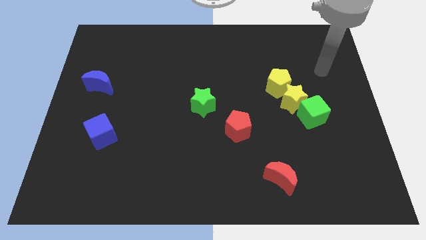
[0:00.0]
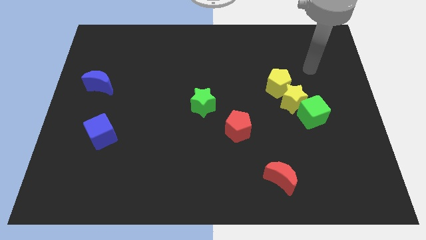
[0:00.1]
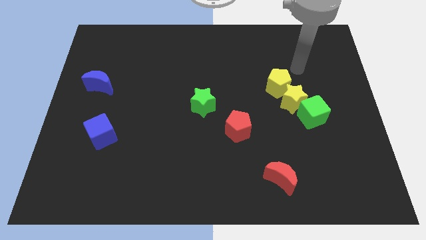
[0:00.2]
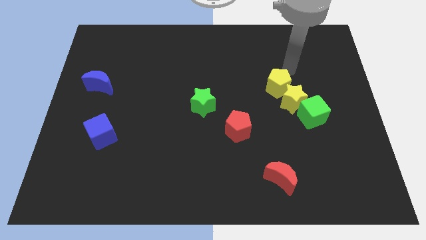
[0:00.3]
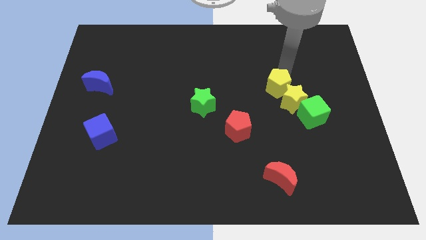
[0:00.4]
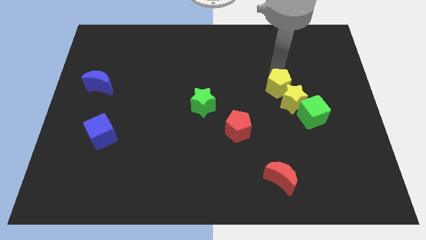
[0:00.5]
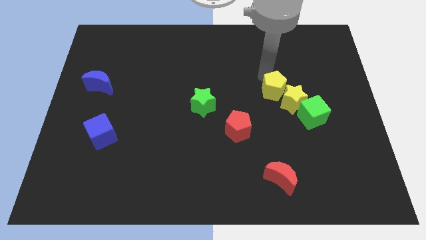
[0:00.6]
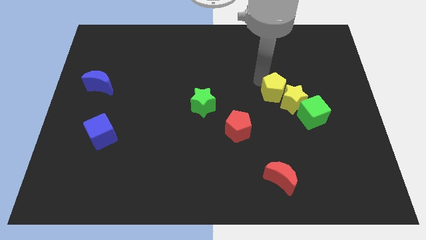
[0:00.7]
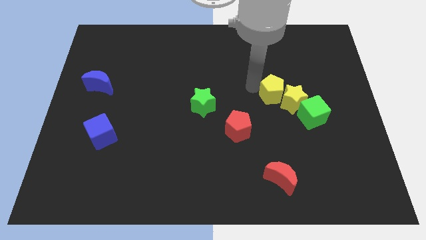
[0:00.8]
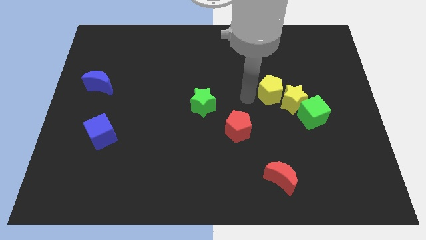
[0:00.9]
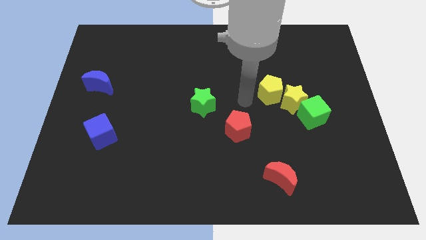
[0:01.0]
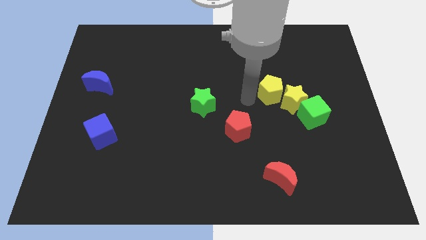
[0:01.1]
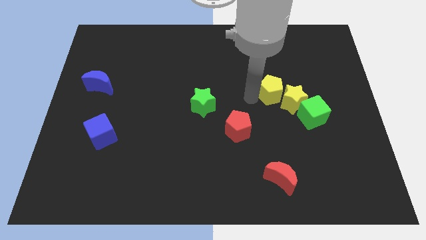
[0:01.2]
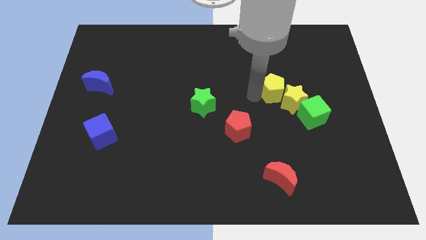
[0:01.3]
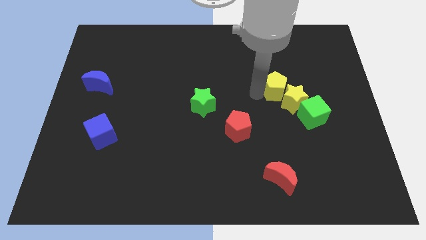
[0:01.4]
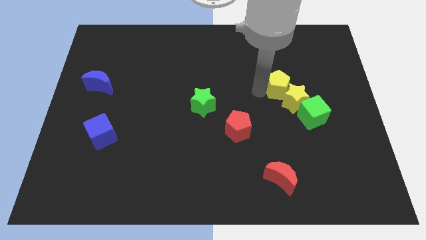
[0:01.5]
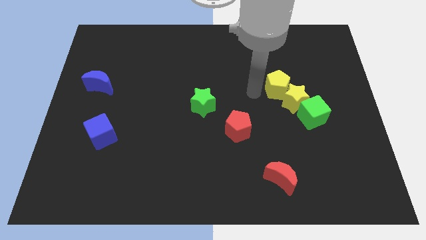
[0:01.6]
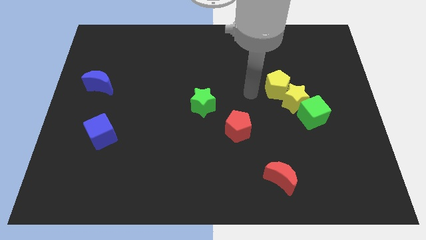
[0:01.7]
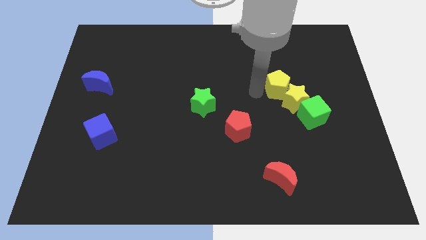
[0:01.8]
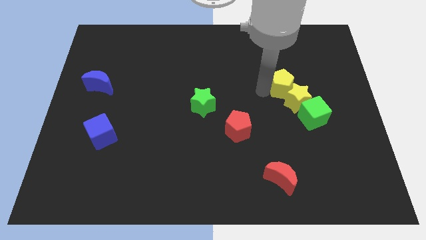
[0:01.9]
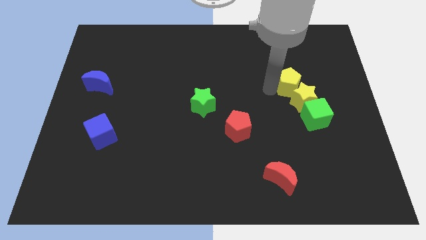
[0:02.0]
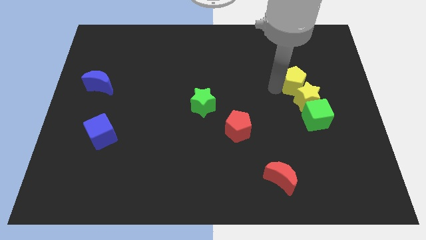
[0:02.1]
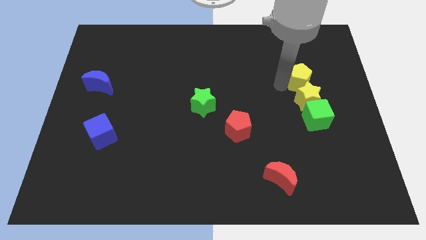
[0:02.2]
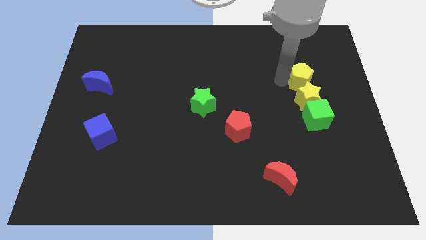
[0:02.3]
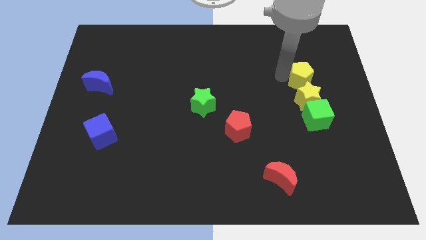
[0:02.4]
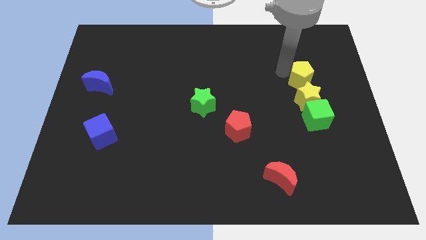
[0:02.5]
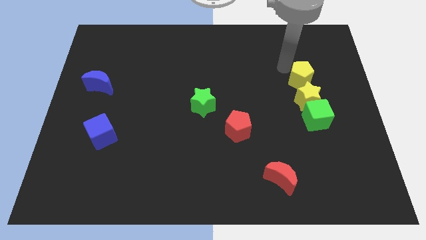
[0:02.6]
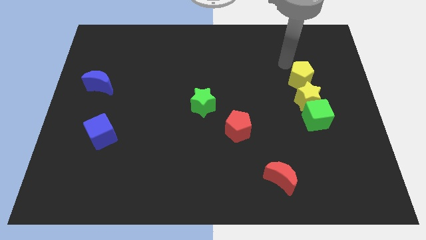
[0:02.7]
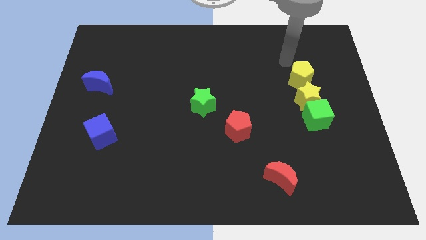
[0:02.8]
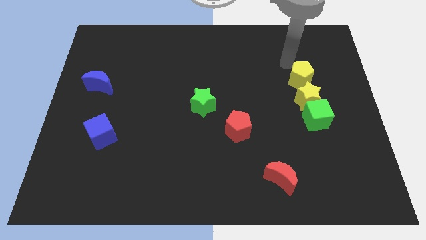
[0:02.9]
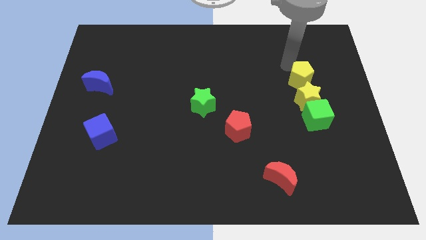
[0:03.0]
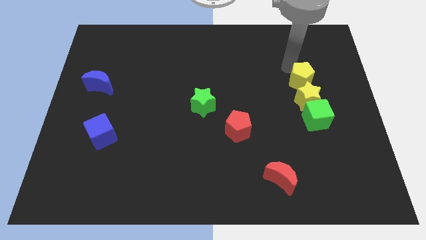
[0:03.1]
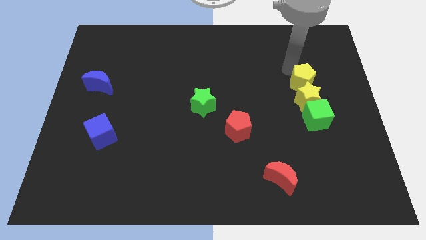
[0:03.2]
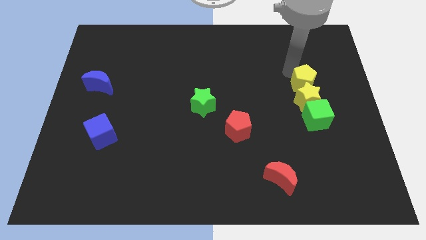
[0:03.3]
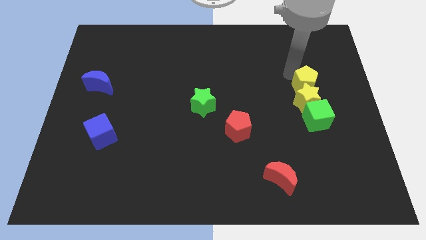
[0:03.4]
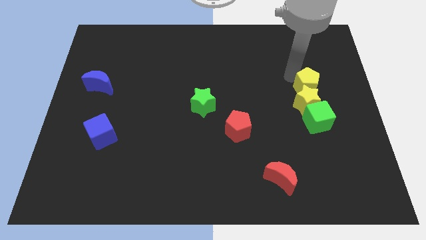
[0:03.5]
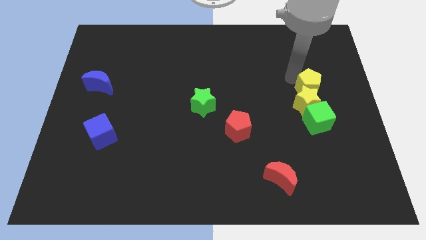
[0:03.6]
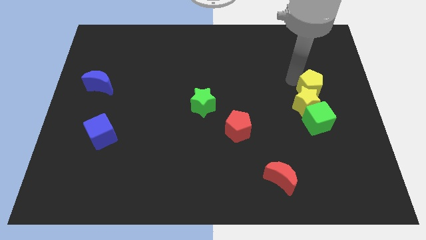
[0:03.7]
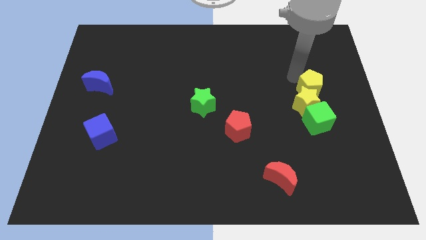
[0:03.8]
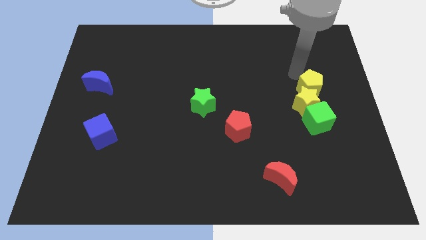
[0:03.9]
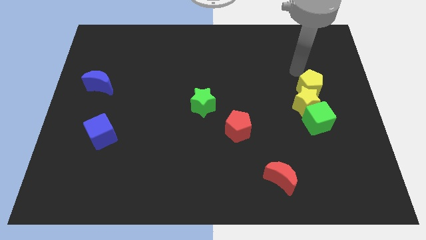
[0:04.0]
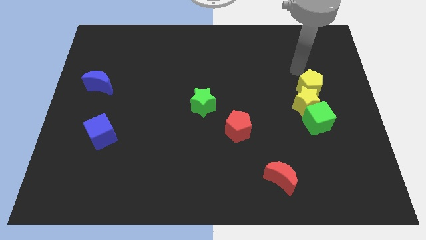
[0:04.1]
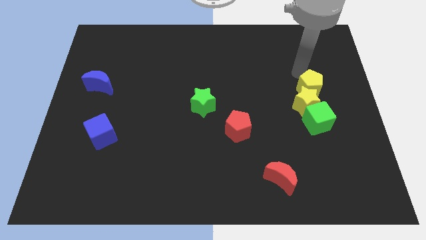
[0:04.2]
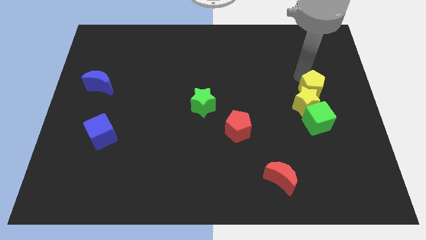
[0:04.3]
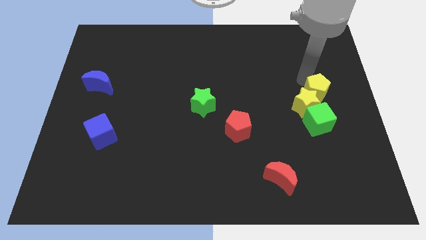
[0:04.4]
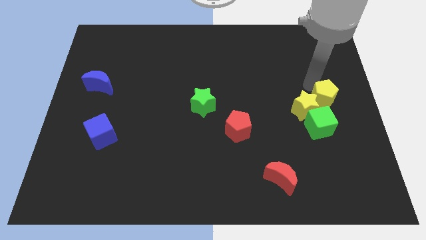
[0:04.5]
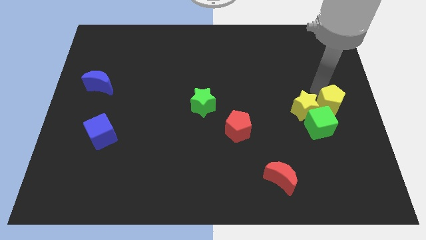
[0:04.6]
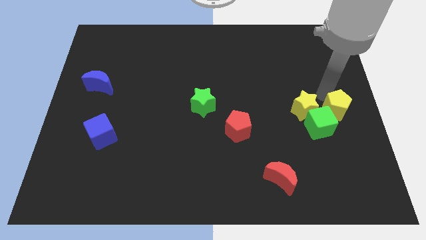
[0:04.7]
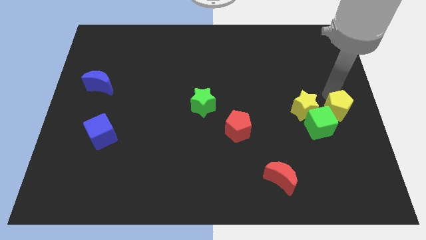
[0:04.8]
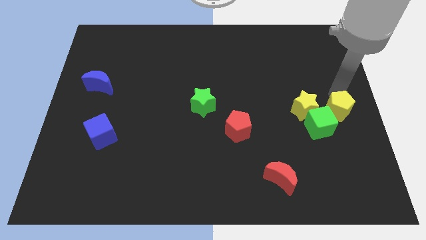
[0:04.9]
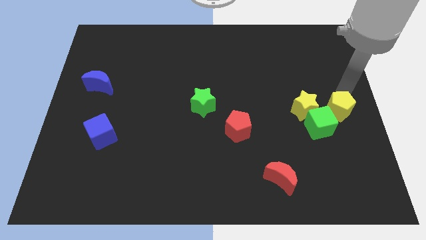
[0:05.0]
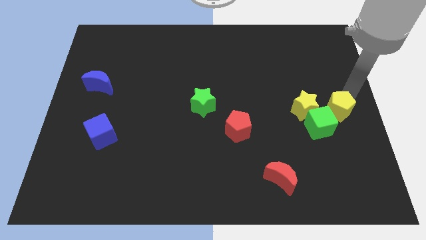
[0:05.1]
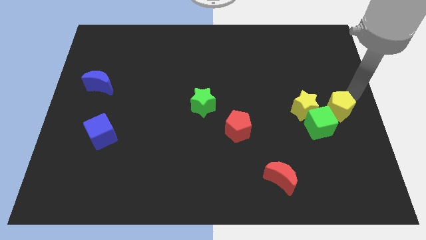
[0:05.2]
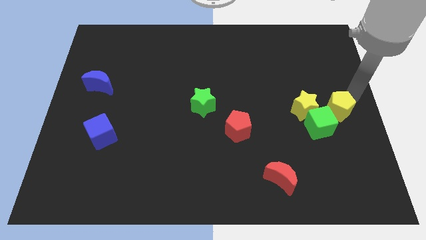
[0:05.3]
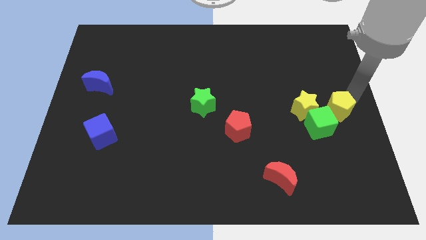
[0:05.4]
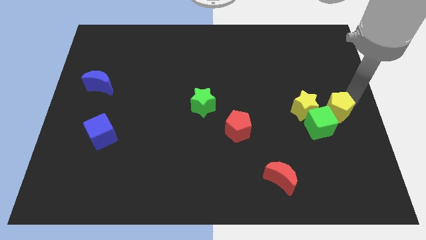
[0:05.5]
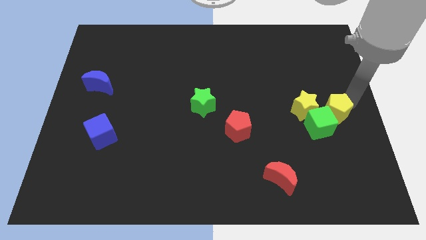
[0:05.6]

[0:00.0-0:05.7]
slide the yellow pentagon towards the green cube
